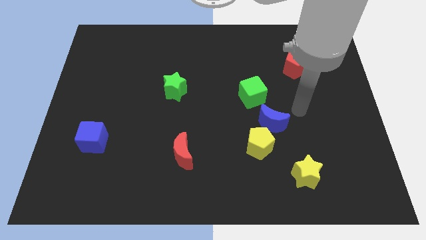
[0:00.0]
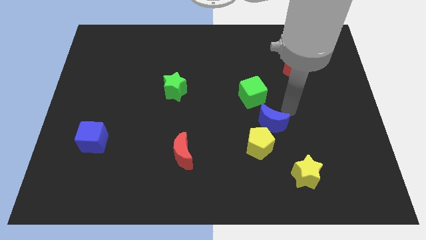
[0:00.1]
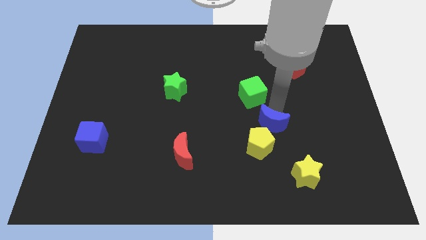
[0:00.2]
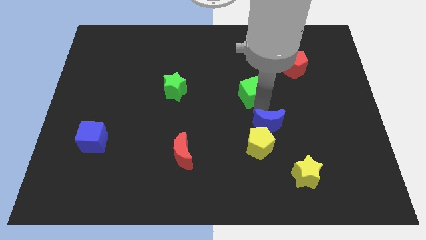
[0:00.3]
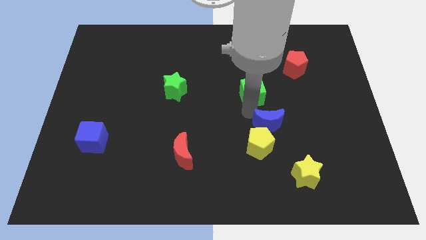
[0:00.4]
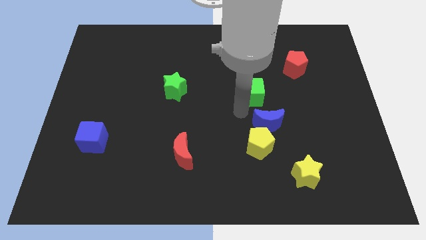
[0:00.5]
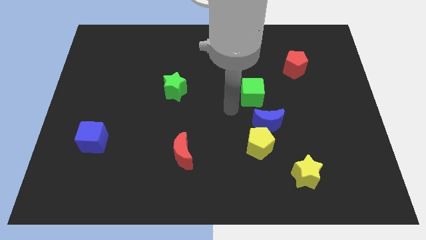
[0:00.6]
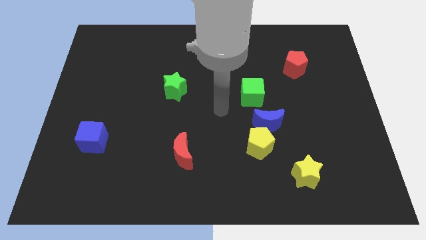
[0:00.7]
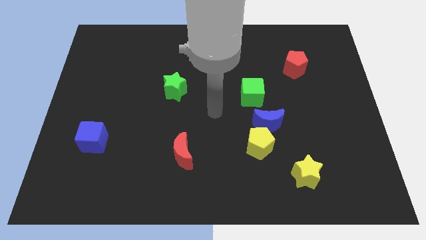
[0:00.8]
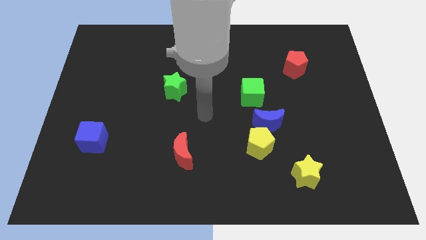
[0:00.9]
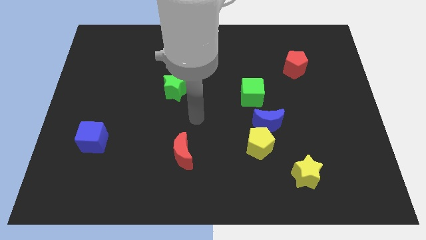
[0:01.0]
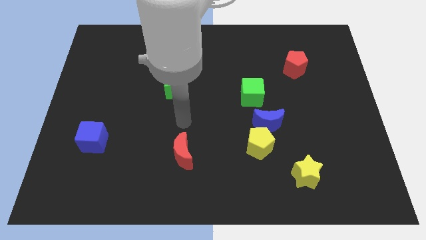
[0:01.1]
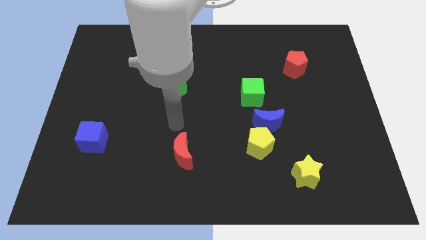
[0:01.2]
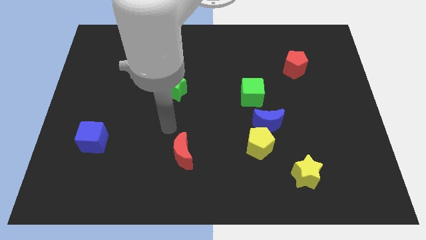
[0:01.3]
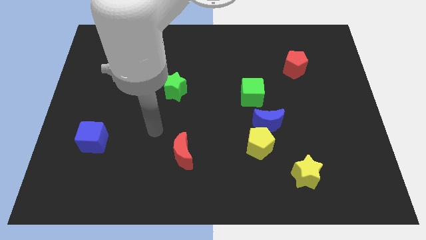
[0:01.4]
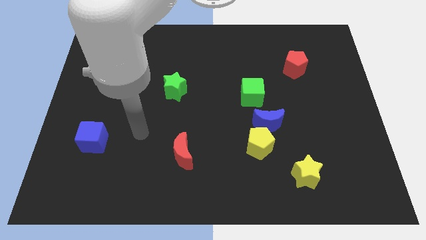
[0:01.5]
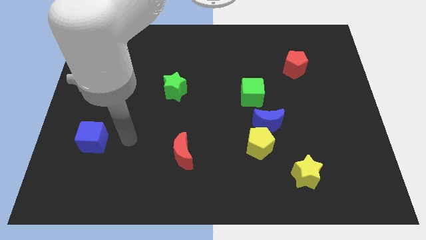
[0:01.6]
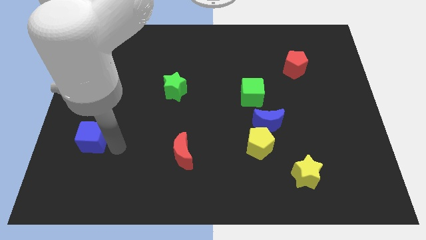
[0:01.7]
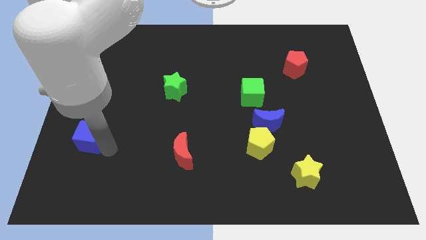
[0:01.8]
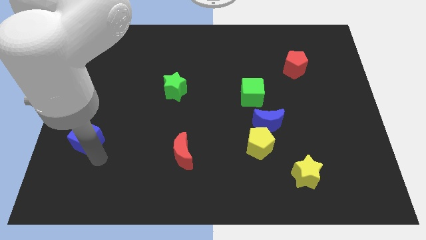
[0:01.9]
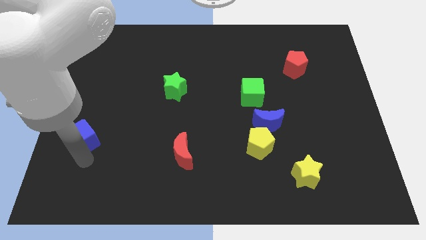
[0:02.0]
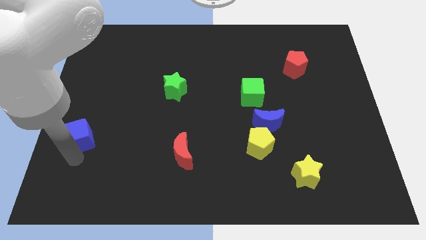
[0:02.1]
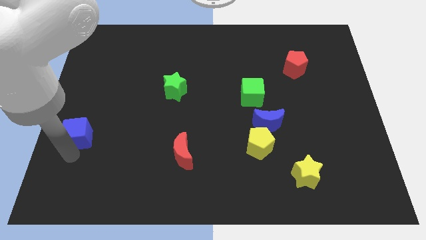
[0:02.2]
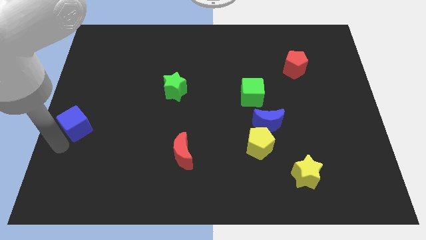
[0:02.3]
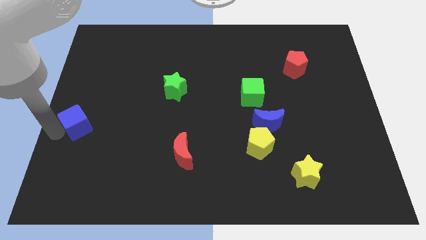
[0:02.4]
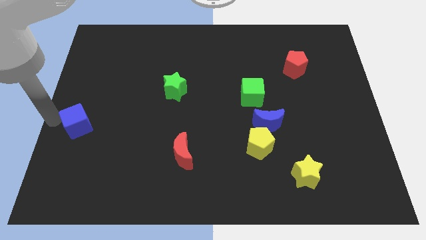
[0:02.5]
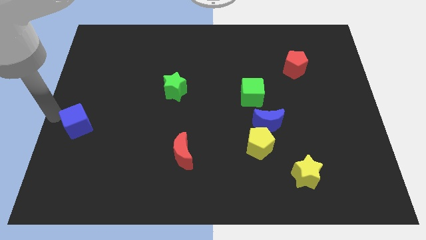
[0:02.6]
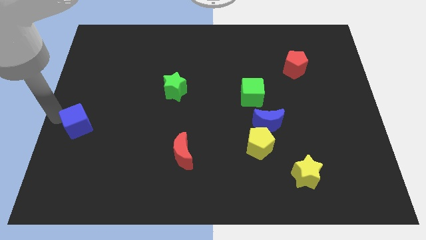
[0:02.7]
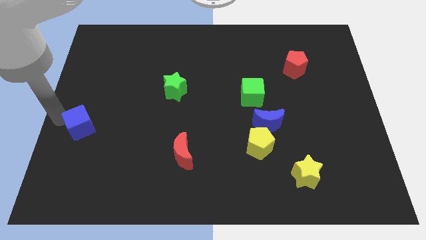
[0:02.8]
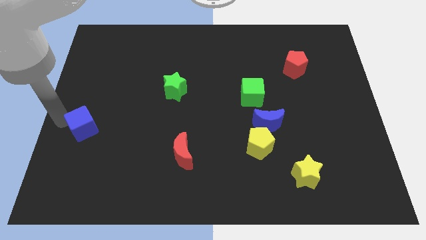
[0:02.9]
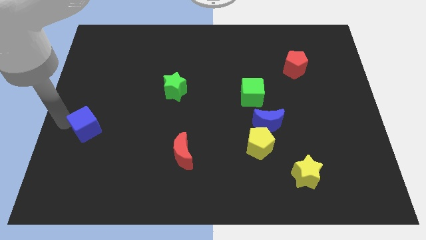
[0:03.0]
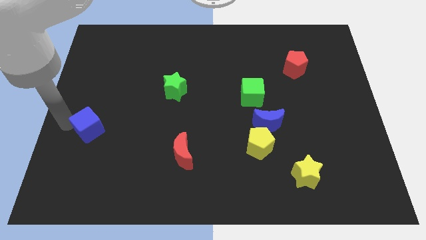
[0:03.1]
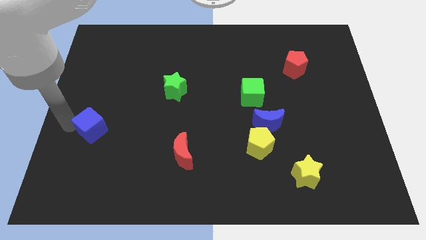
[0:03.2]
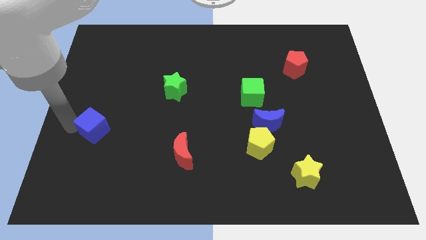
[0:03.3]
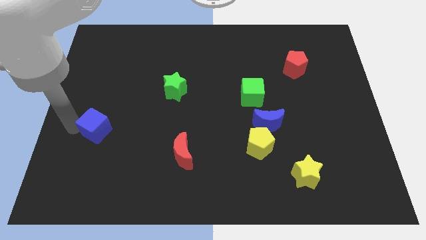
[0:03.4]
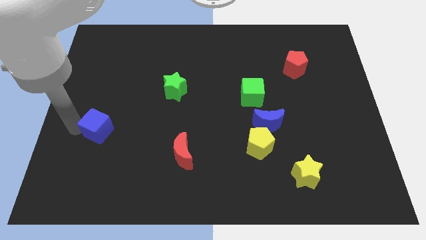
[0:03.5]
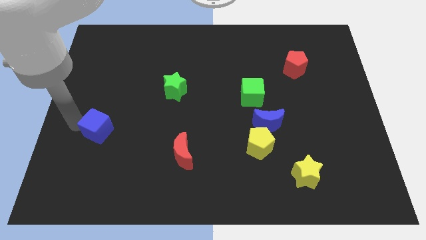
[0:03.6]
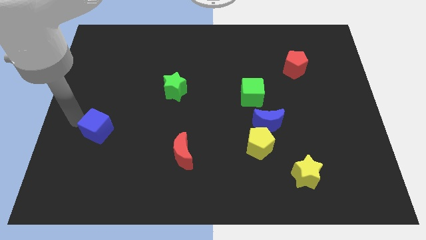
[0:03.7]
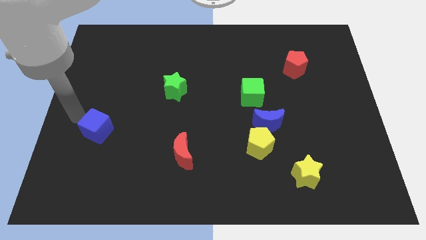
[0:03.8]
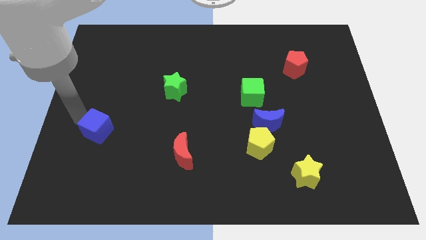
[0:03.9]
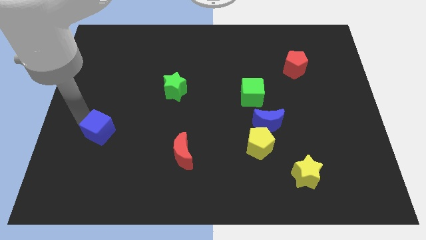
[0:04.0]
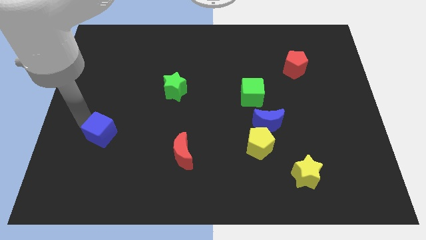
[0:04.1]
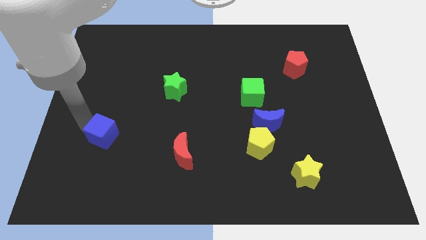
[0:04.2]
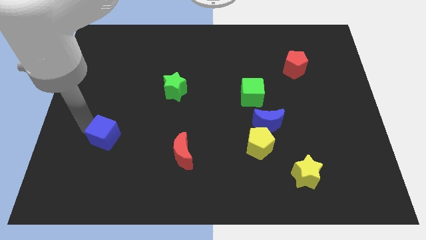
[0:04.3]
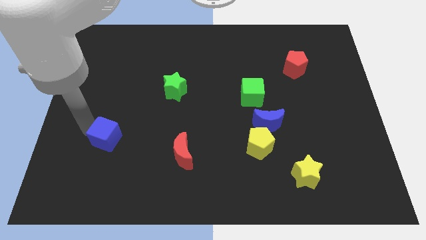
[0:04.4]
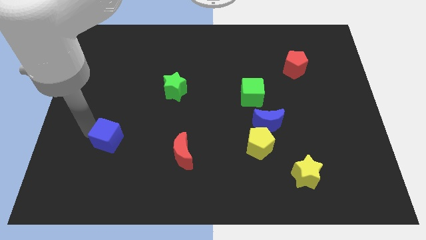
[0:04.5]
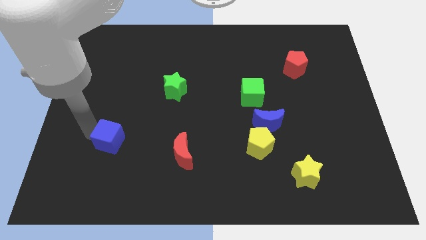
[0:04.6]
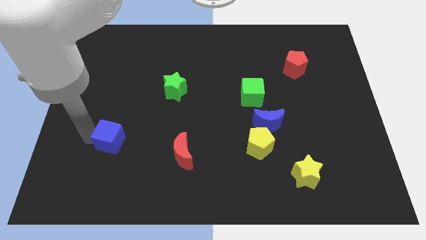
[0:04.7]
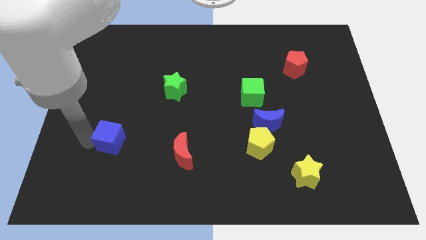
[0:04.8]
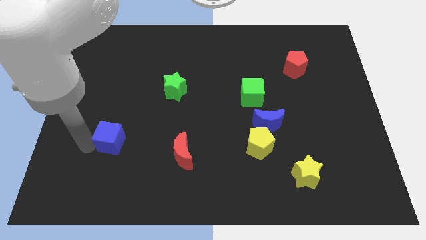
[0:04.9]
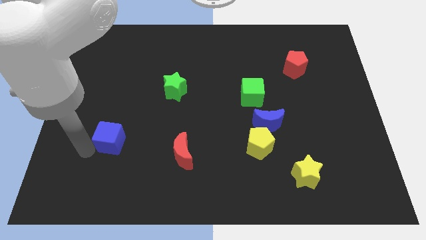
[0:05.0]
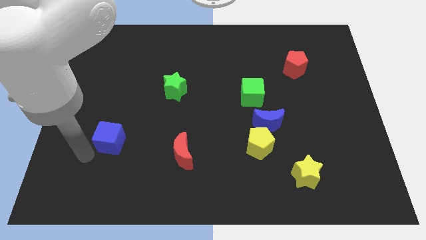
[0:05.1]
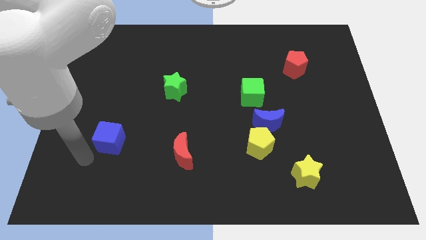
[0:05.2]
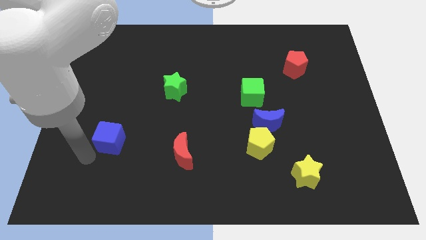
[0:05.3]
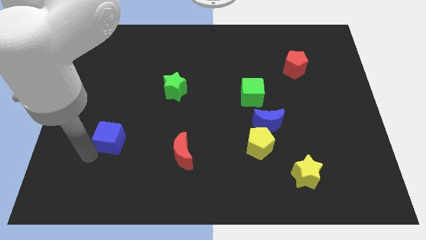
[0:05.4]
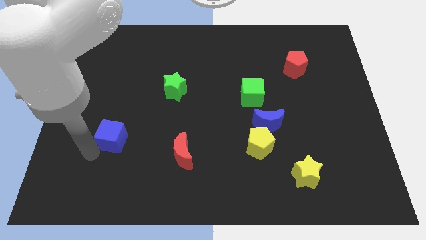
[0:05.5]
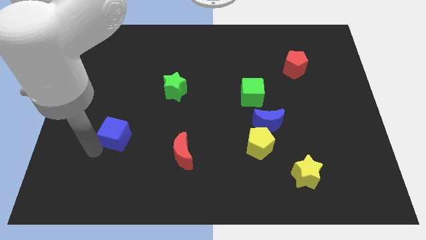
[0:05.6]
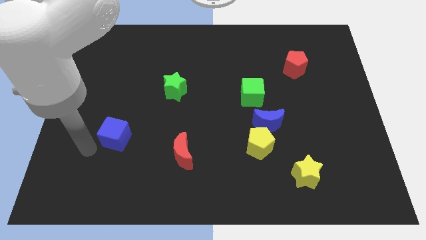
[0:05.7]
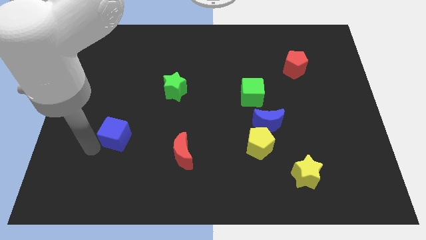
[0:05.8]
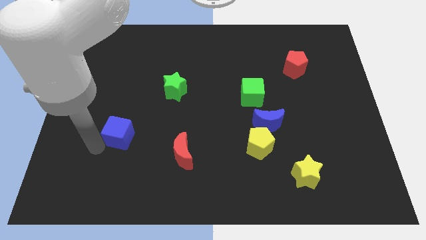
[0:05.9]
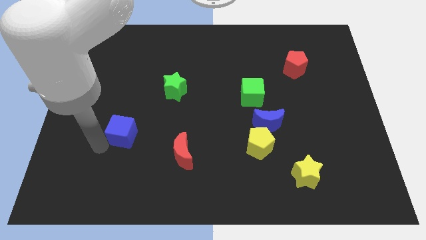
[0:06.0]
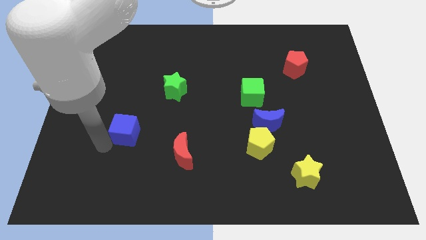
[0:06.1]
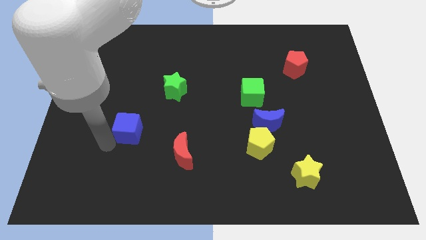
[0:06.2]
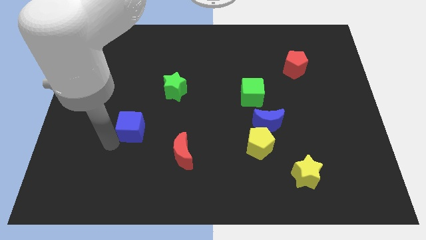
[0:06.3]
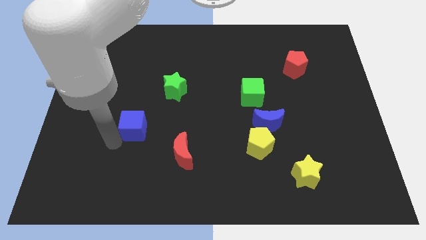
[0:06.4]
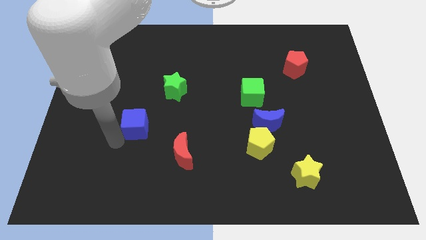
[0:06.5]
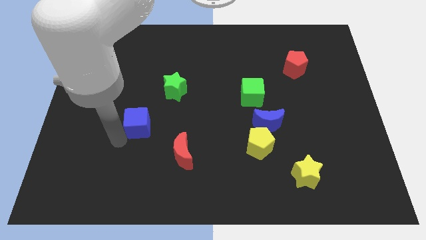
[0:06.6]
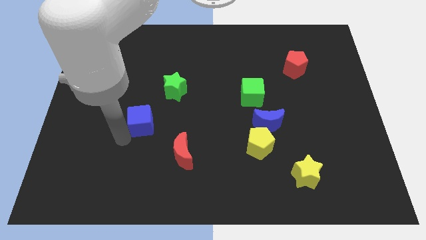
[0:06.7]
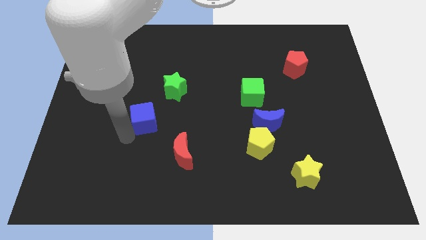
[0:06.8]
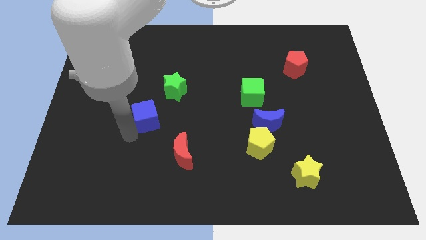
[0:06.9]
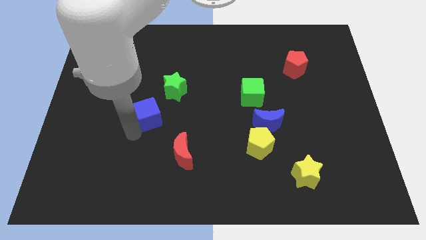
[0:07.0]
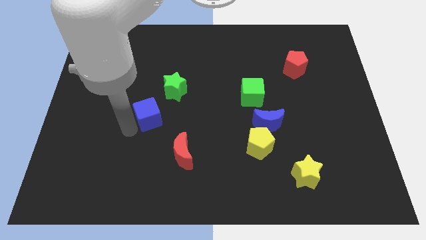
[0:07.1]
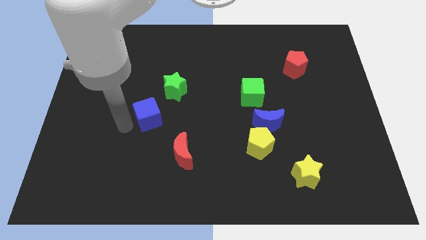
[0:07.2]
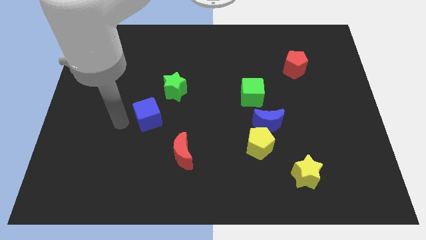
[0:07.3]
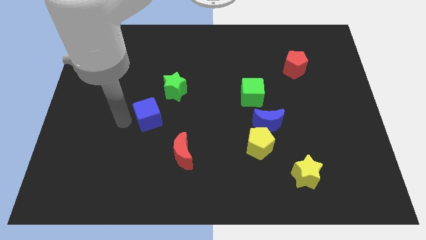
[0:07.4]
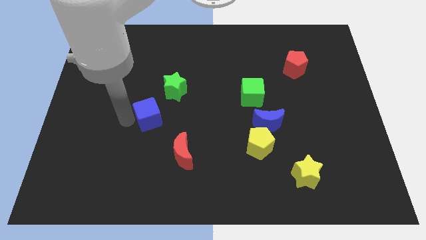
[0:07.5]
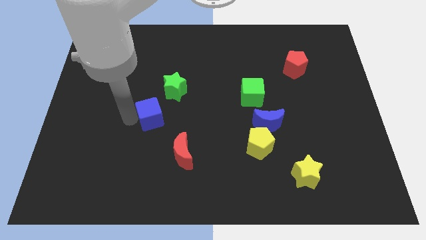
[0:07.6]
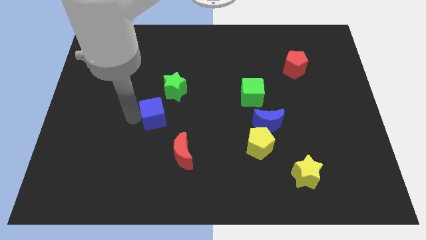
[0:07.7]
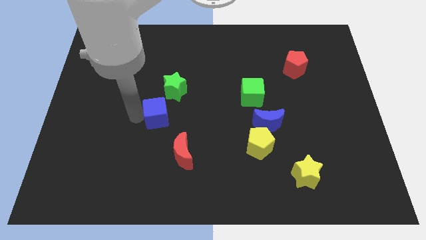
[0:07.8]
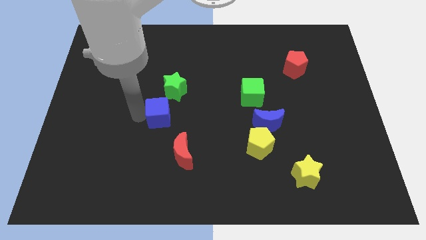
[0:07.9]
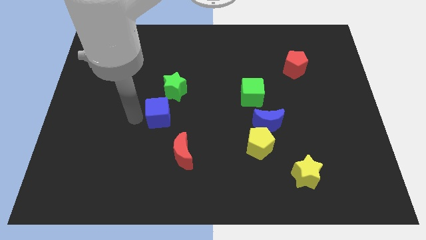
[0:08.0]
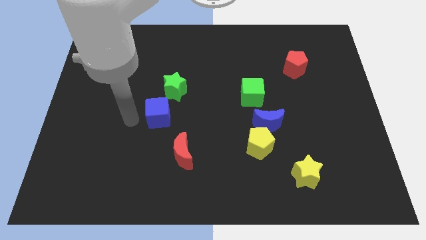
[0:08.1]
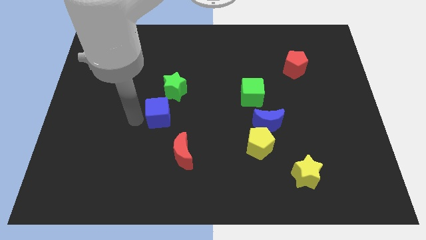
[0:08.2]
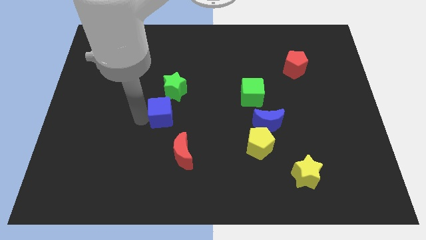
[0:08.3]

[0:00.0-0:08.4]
slide the blue cube to the middle
